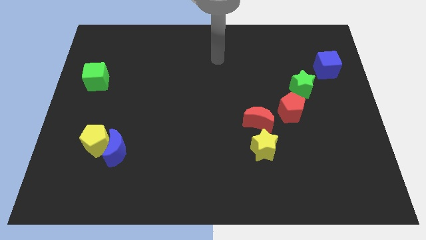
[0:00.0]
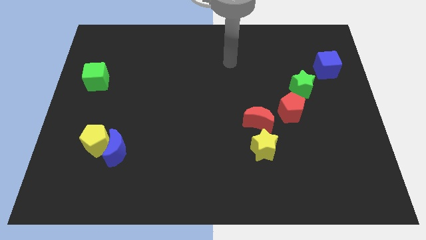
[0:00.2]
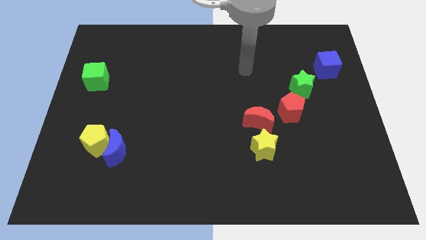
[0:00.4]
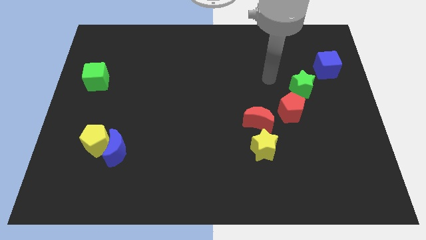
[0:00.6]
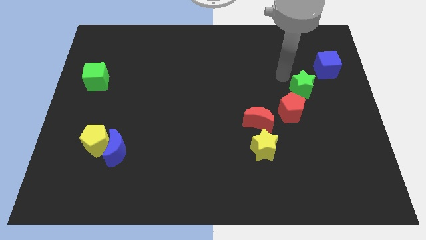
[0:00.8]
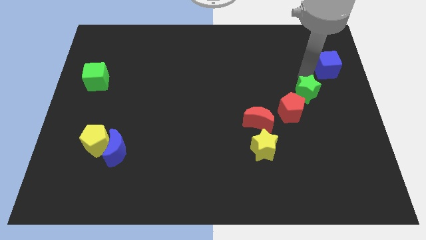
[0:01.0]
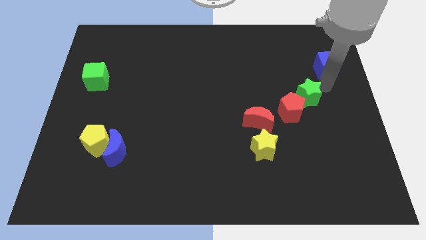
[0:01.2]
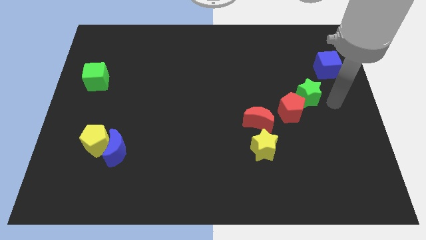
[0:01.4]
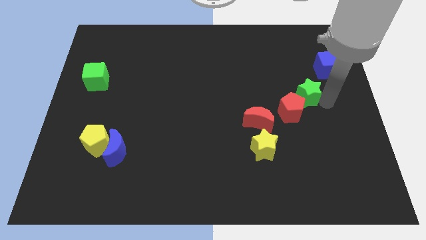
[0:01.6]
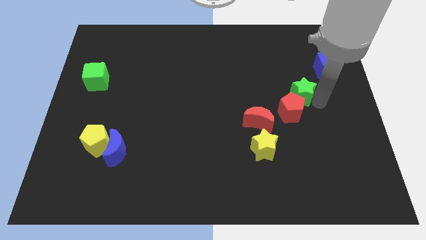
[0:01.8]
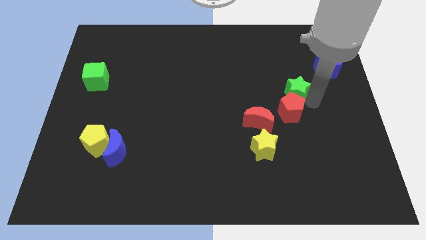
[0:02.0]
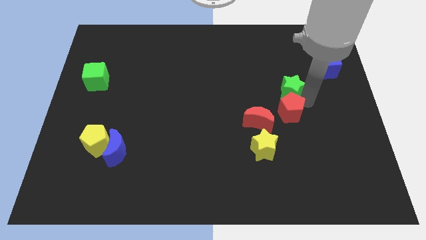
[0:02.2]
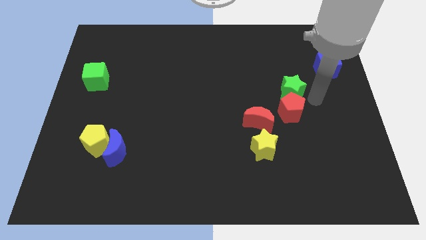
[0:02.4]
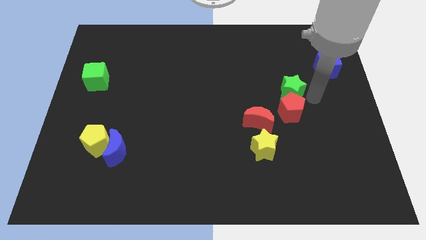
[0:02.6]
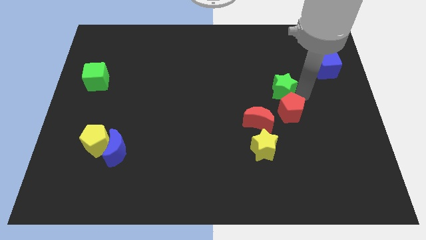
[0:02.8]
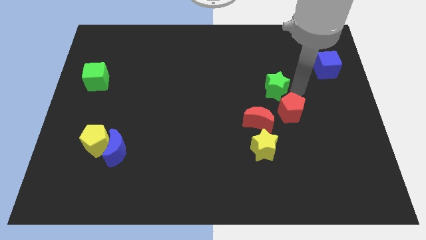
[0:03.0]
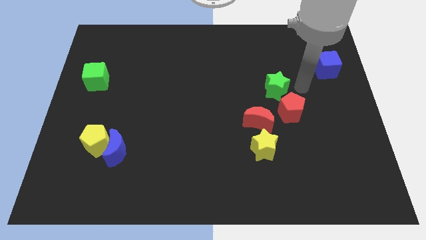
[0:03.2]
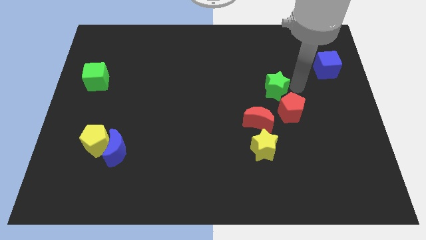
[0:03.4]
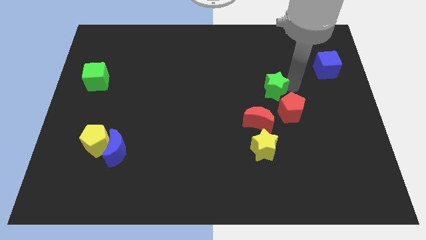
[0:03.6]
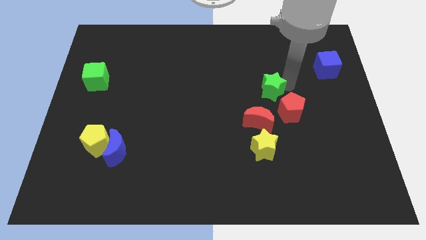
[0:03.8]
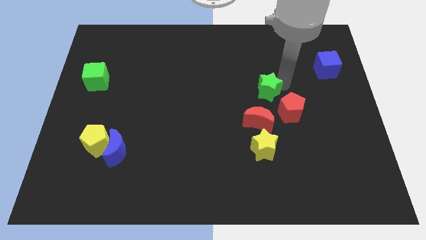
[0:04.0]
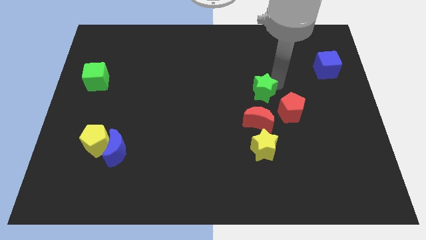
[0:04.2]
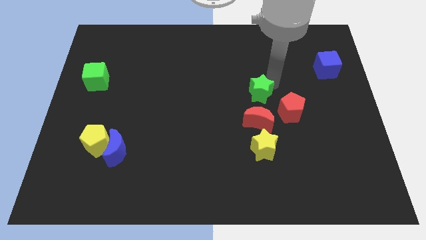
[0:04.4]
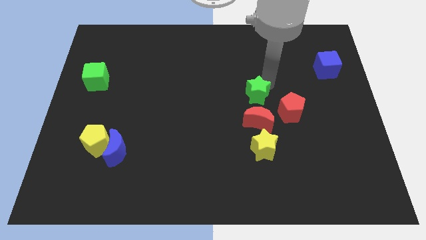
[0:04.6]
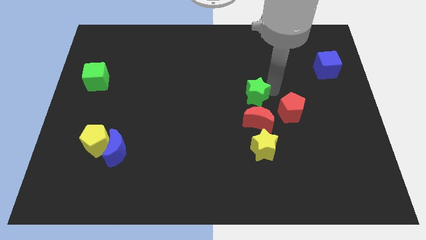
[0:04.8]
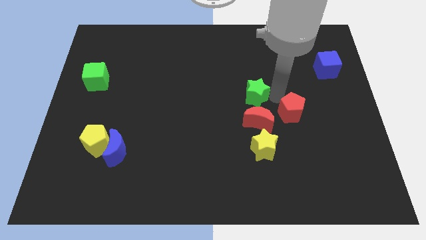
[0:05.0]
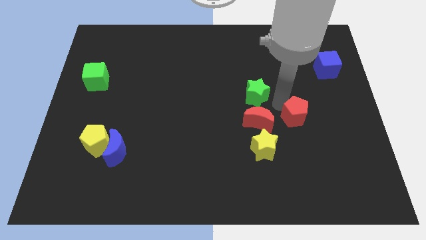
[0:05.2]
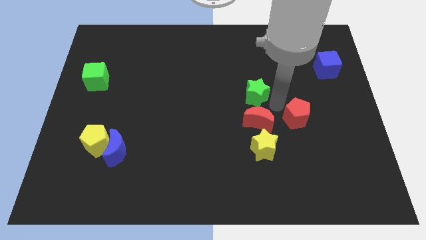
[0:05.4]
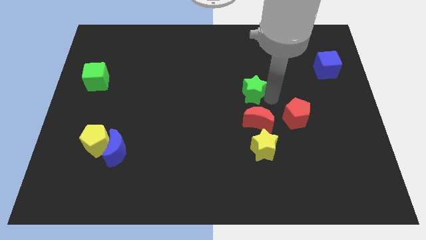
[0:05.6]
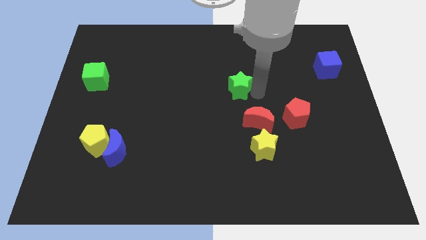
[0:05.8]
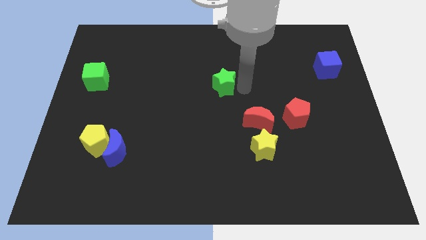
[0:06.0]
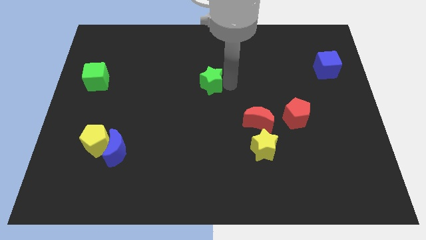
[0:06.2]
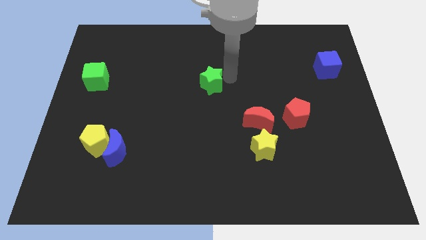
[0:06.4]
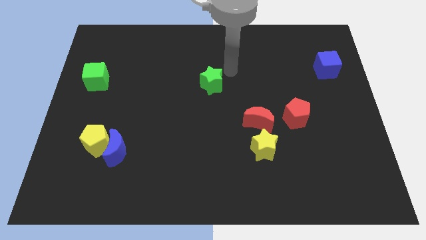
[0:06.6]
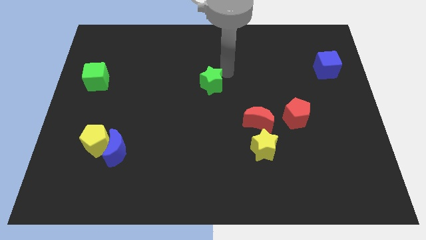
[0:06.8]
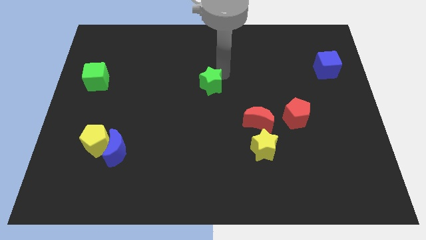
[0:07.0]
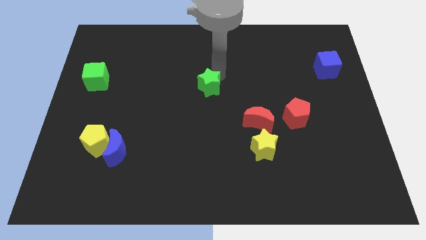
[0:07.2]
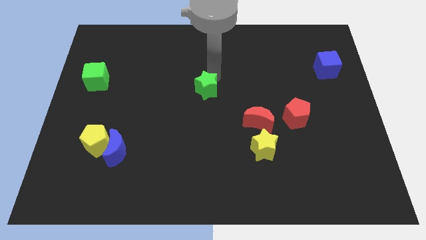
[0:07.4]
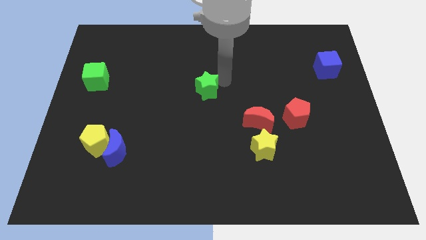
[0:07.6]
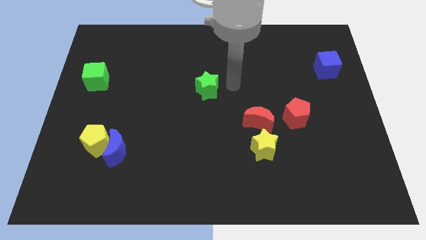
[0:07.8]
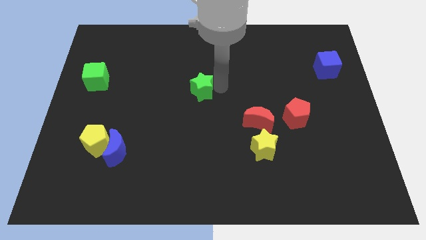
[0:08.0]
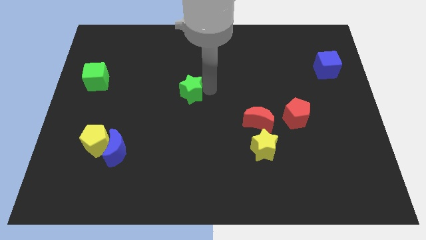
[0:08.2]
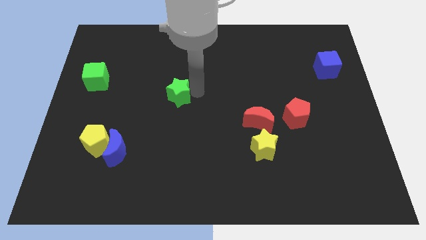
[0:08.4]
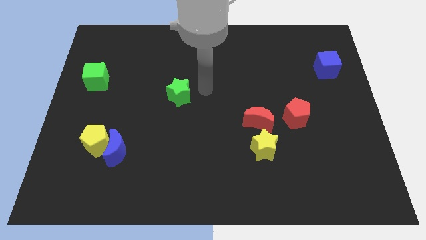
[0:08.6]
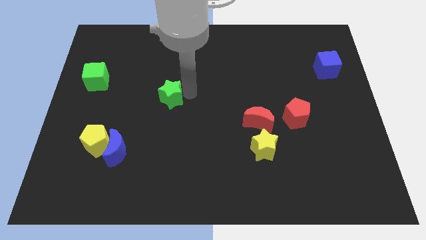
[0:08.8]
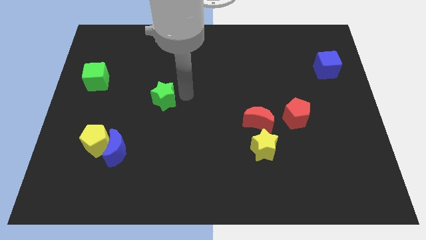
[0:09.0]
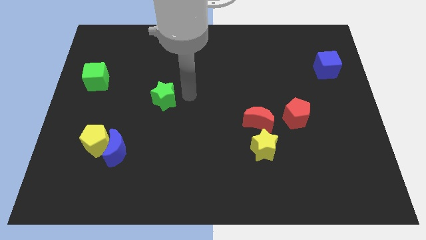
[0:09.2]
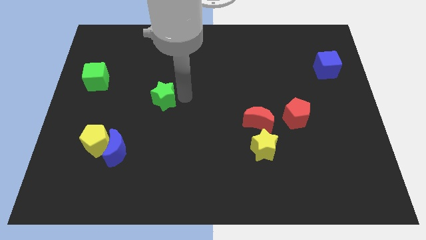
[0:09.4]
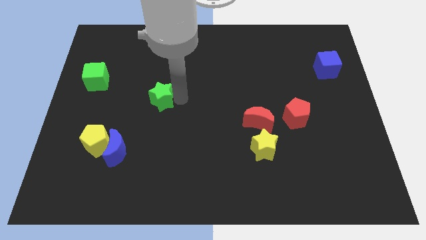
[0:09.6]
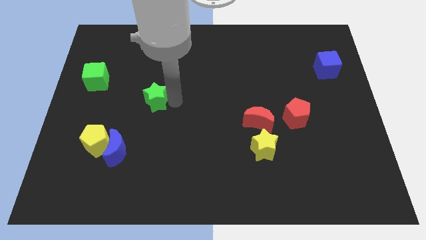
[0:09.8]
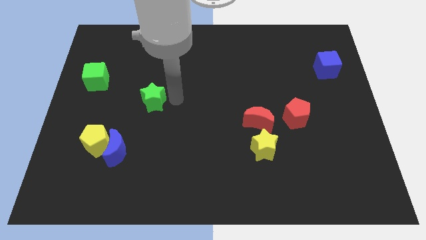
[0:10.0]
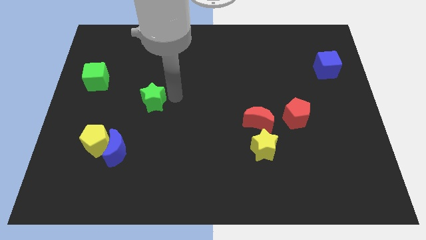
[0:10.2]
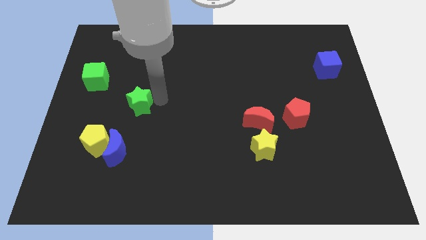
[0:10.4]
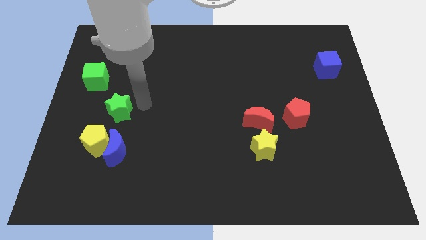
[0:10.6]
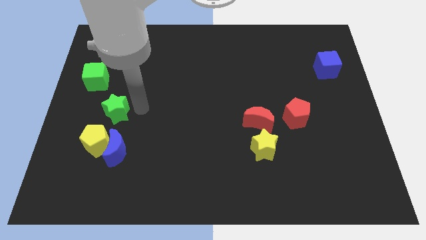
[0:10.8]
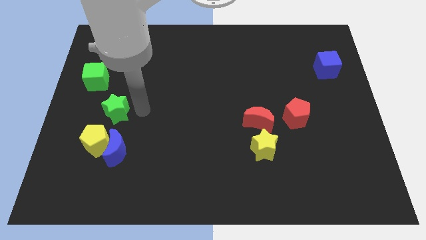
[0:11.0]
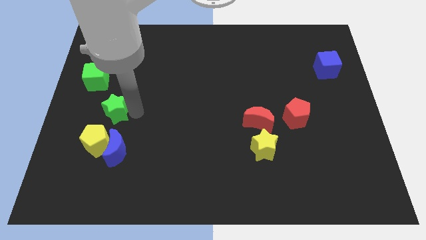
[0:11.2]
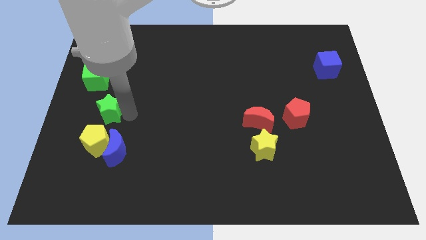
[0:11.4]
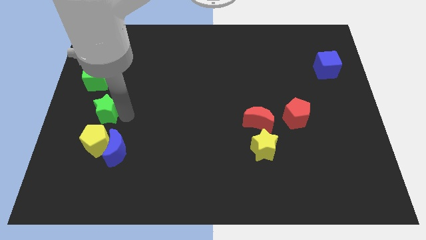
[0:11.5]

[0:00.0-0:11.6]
push the green star below the green cube

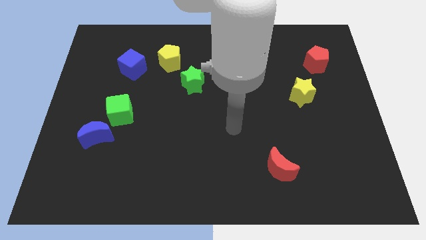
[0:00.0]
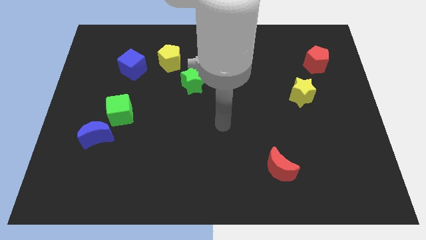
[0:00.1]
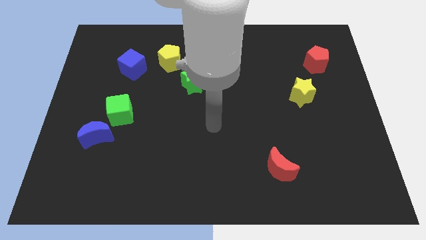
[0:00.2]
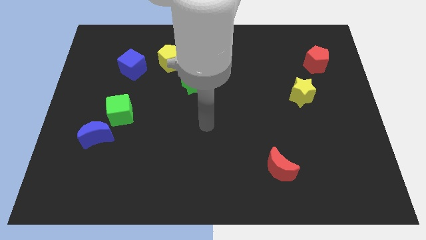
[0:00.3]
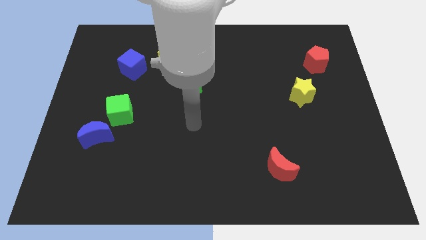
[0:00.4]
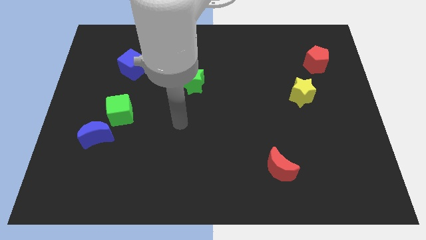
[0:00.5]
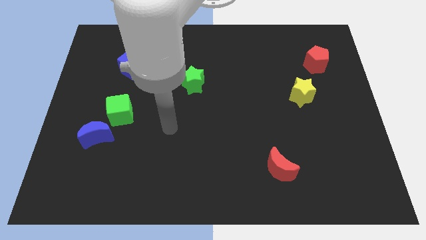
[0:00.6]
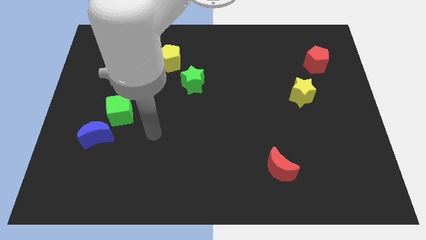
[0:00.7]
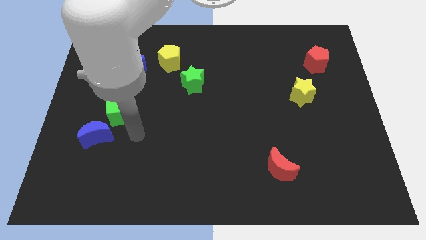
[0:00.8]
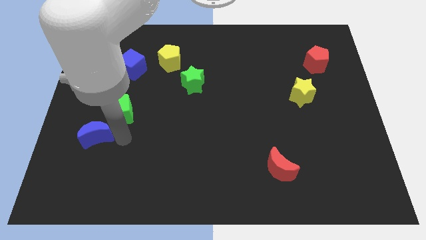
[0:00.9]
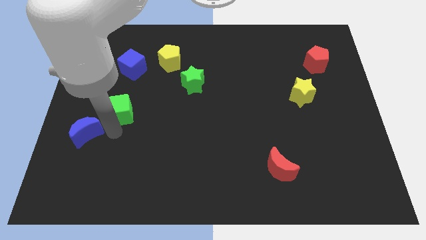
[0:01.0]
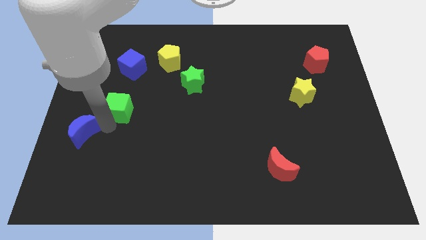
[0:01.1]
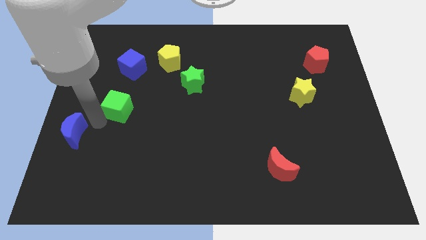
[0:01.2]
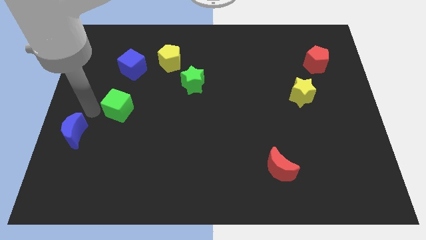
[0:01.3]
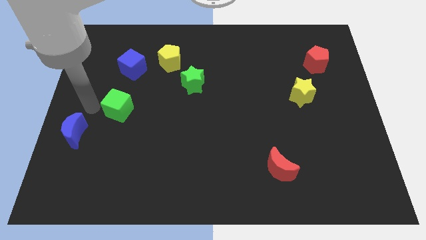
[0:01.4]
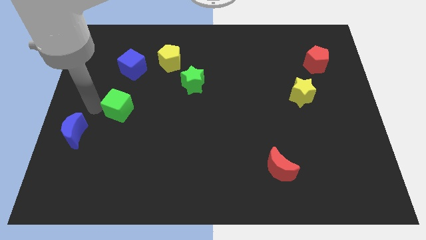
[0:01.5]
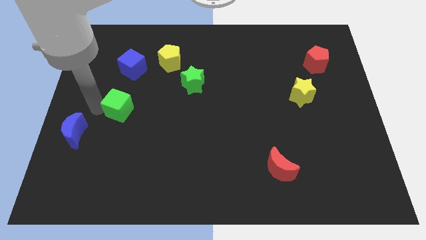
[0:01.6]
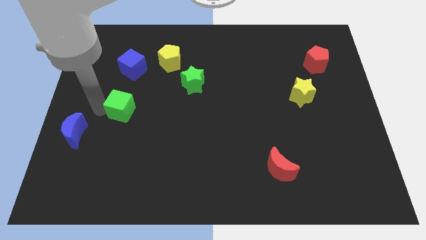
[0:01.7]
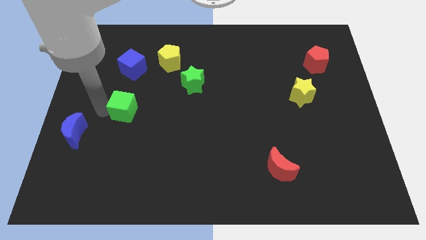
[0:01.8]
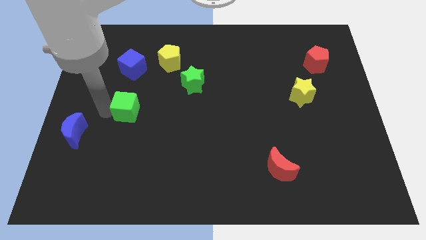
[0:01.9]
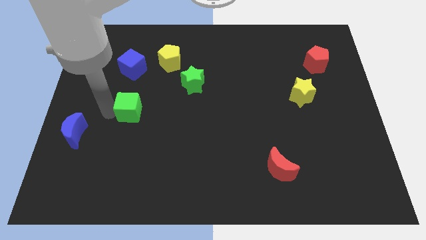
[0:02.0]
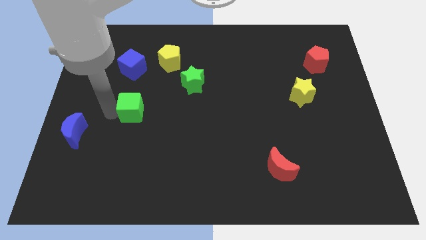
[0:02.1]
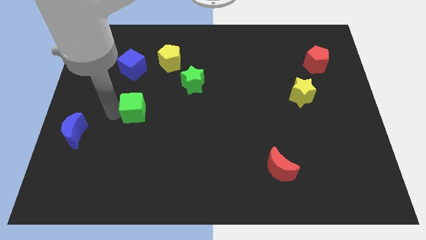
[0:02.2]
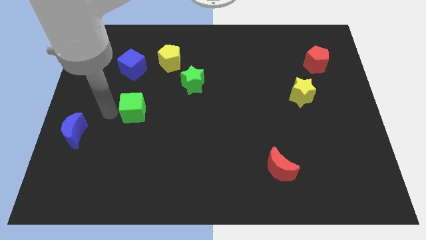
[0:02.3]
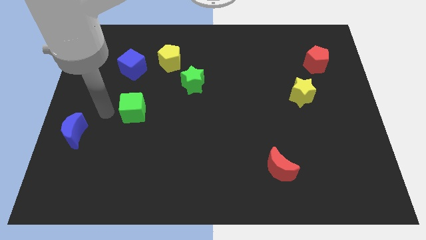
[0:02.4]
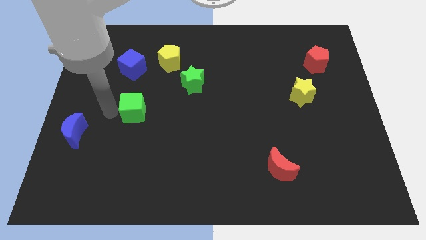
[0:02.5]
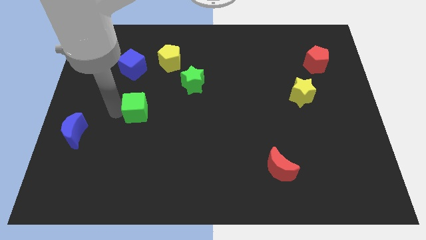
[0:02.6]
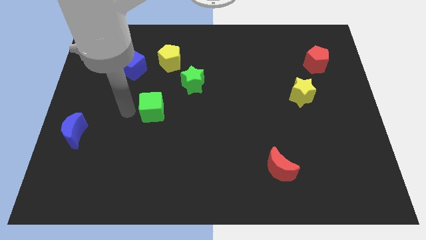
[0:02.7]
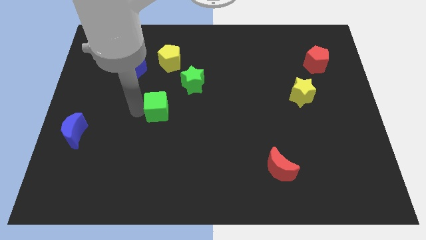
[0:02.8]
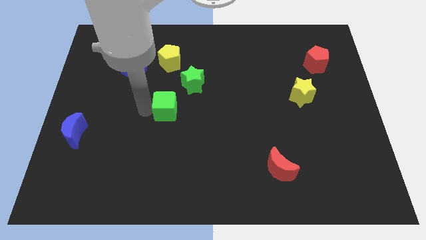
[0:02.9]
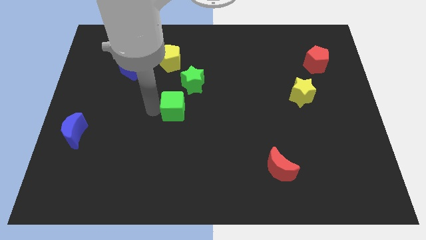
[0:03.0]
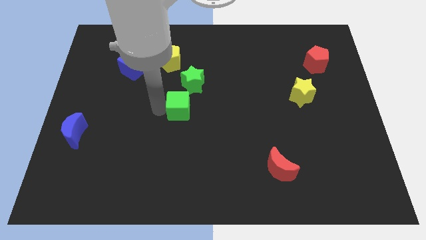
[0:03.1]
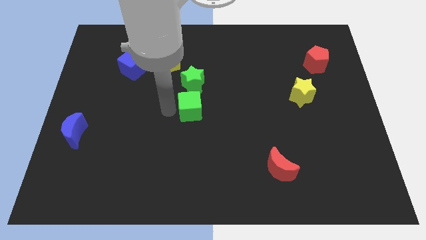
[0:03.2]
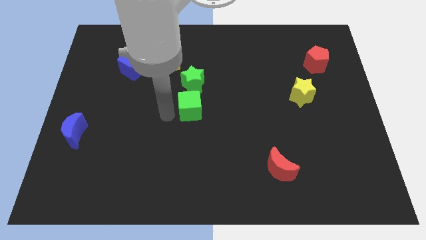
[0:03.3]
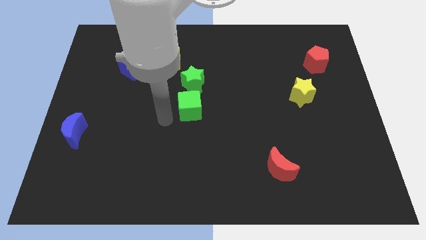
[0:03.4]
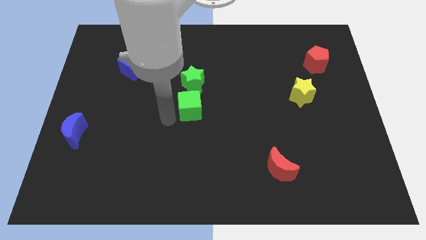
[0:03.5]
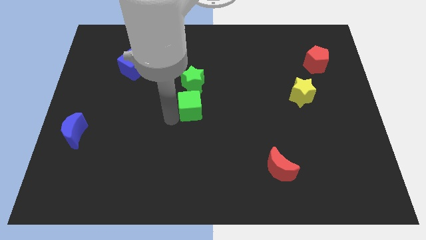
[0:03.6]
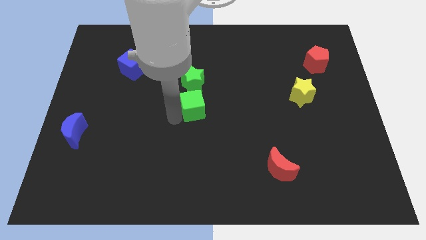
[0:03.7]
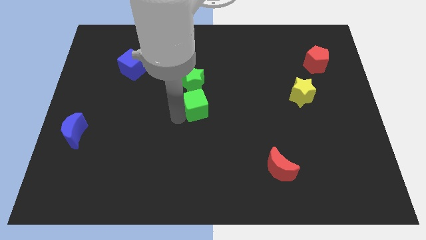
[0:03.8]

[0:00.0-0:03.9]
push the green cube diagonally down and to the right of the green star
